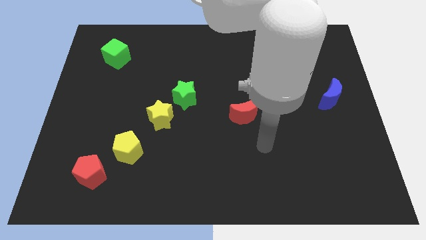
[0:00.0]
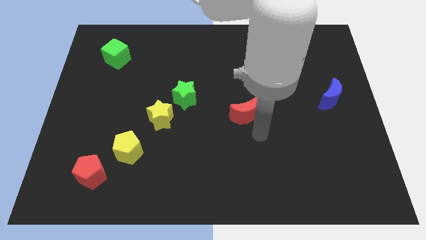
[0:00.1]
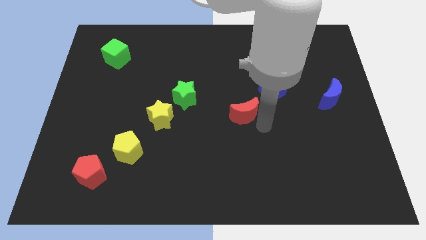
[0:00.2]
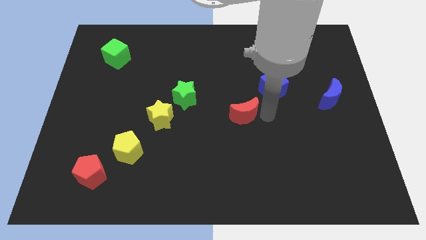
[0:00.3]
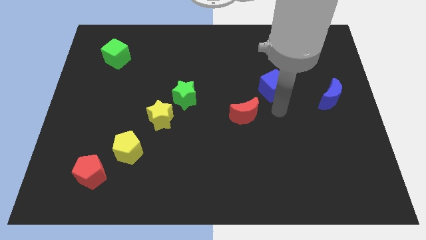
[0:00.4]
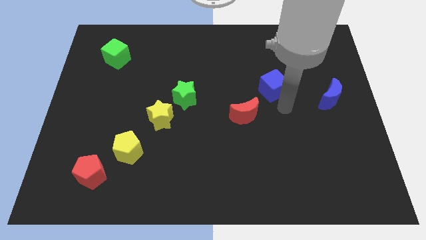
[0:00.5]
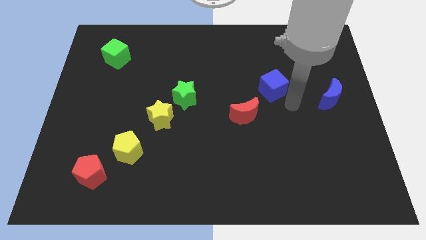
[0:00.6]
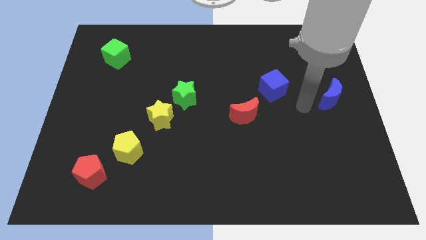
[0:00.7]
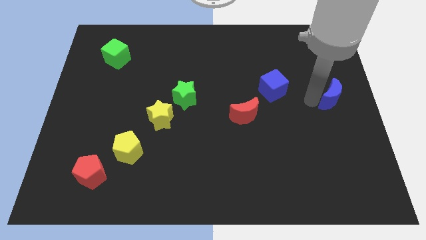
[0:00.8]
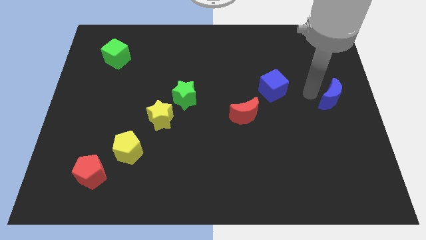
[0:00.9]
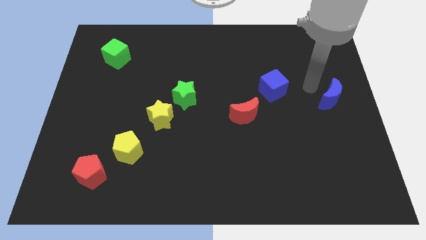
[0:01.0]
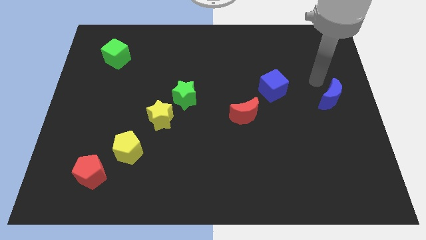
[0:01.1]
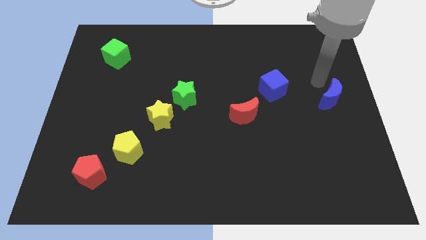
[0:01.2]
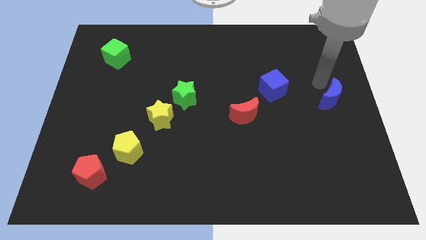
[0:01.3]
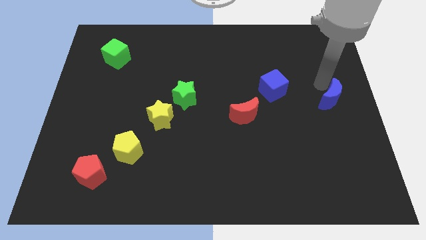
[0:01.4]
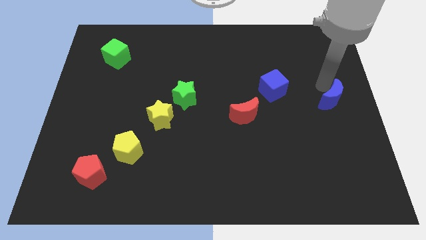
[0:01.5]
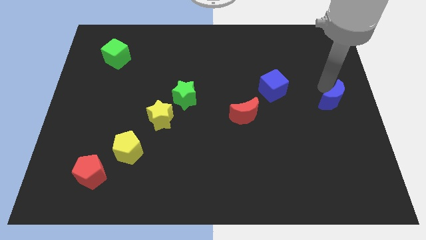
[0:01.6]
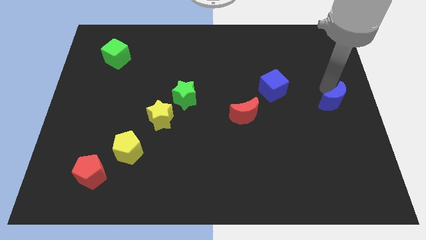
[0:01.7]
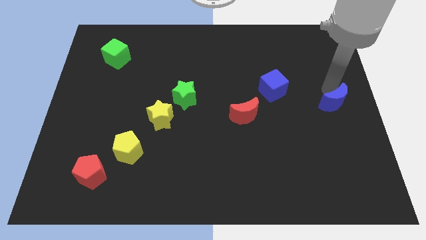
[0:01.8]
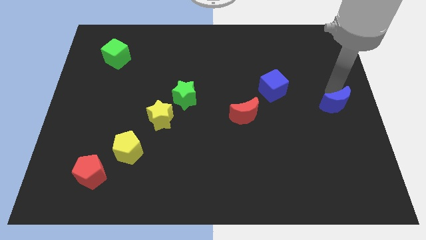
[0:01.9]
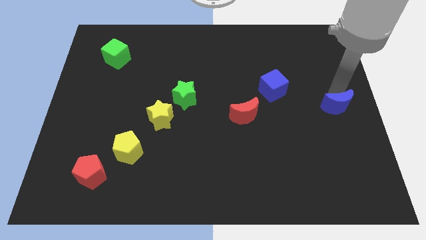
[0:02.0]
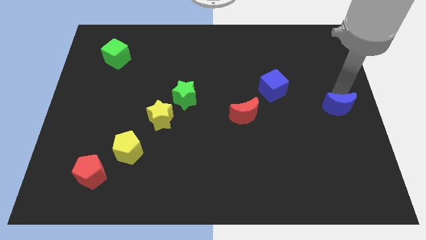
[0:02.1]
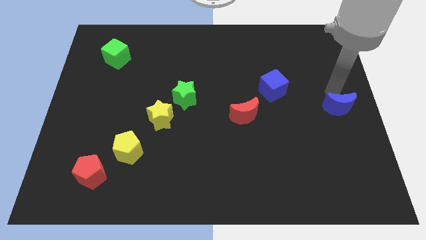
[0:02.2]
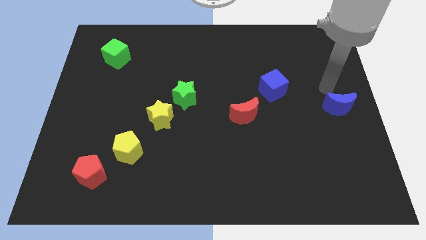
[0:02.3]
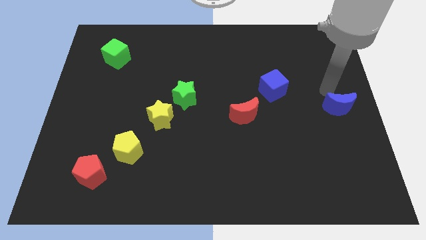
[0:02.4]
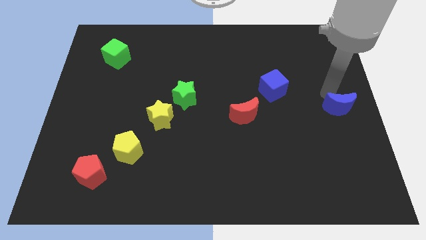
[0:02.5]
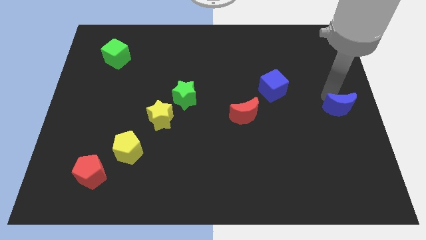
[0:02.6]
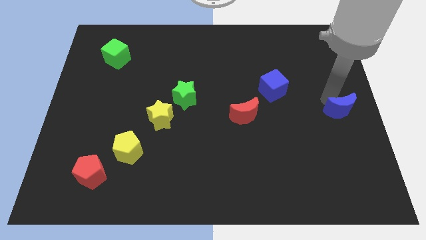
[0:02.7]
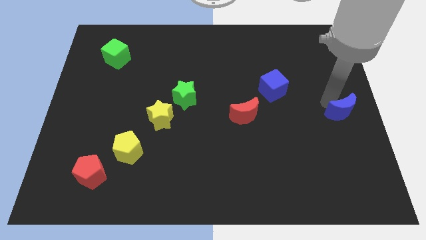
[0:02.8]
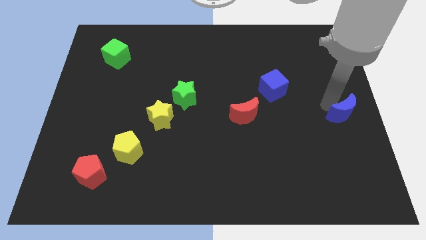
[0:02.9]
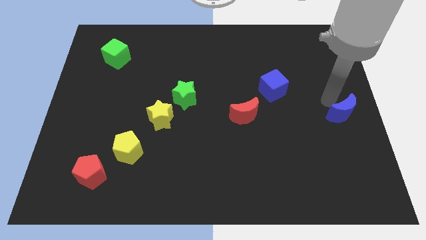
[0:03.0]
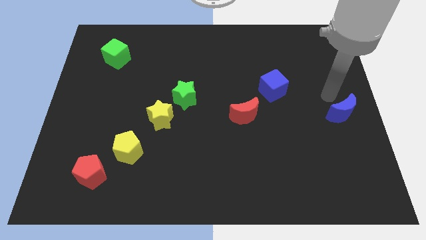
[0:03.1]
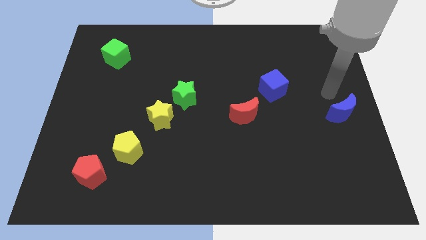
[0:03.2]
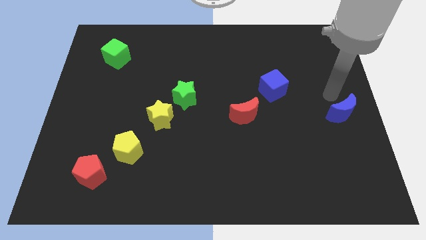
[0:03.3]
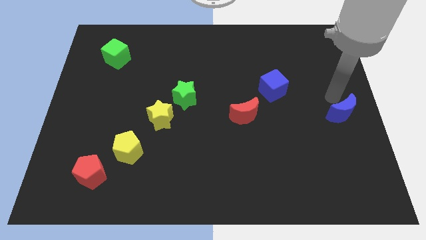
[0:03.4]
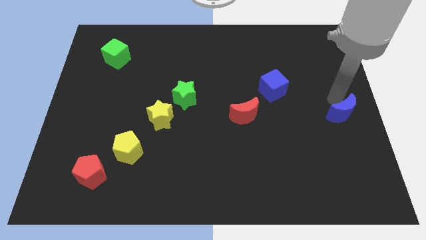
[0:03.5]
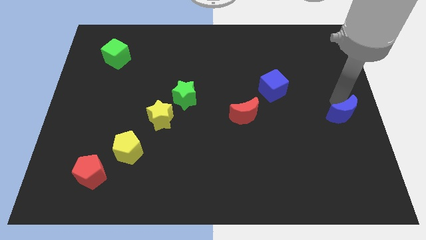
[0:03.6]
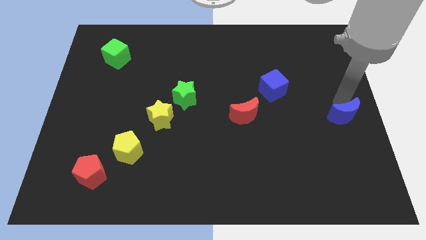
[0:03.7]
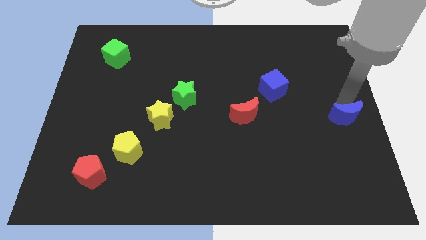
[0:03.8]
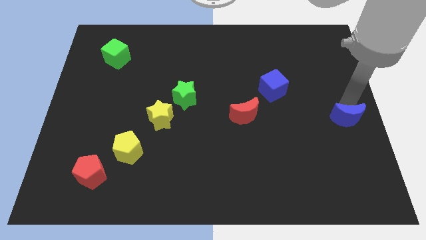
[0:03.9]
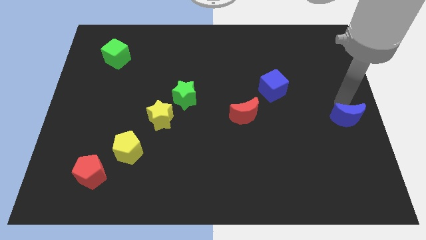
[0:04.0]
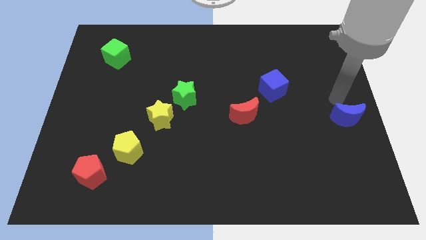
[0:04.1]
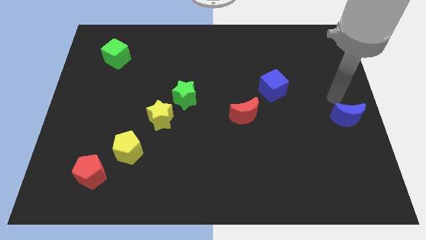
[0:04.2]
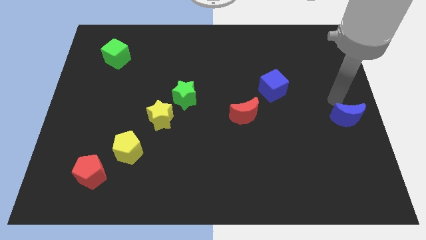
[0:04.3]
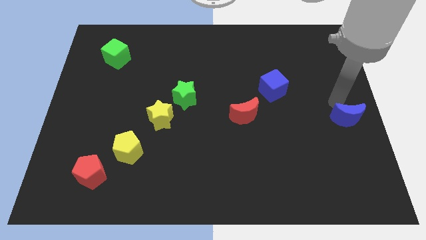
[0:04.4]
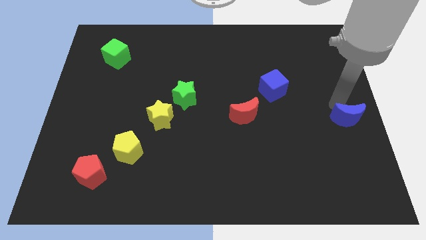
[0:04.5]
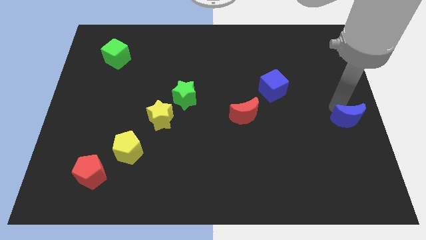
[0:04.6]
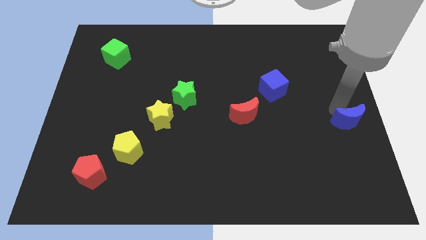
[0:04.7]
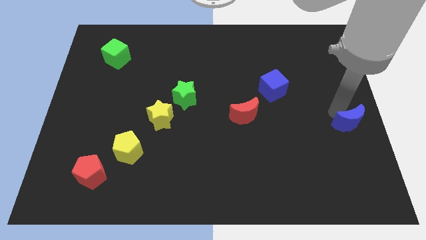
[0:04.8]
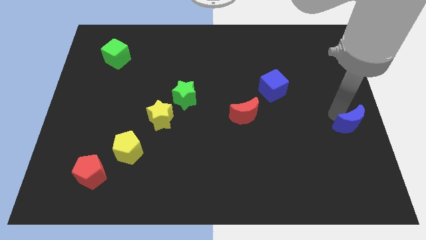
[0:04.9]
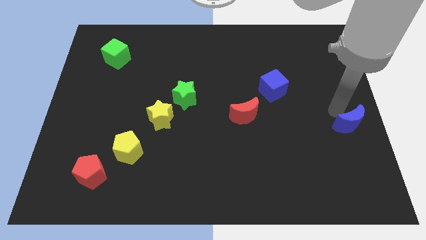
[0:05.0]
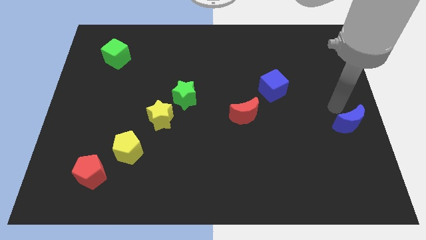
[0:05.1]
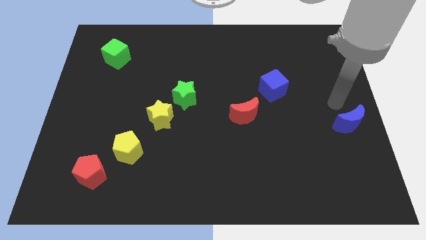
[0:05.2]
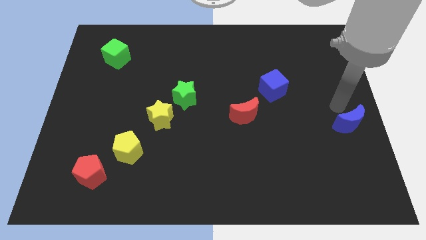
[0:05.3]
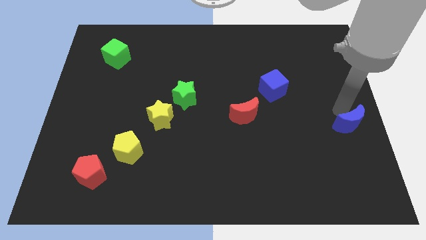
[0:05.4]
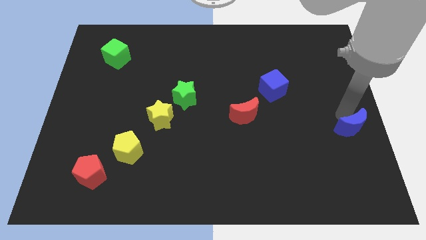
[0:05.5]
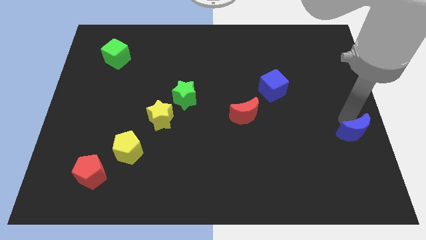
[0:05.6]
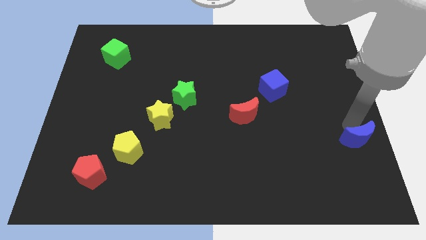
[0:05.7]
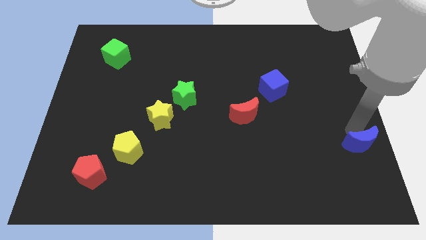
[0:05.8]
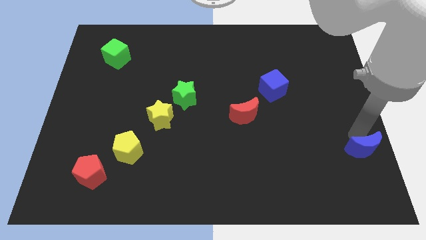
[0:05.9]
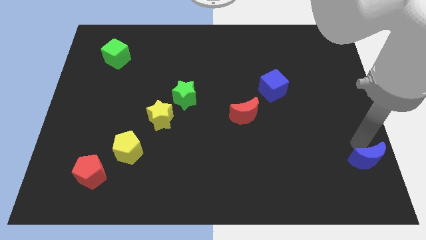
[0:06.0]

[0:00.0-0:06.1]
move the blue moon to the bottom right

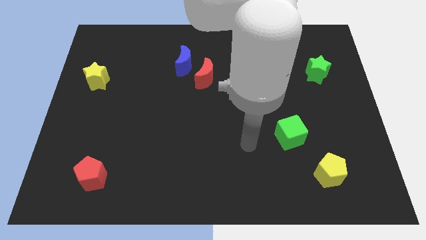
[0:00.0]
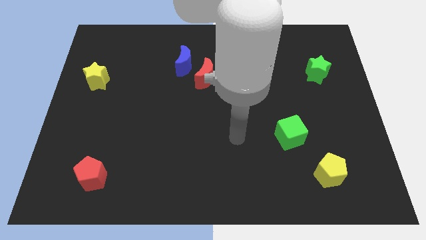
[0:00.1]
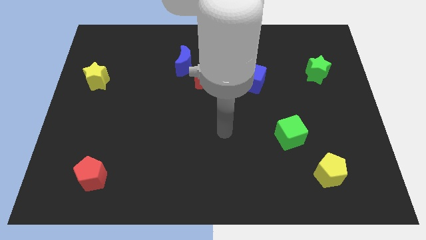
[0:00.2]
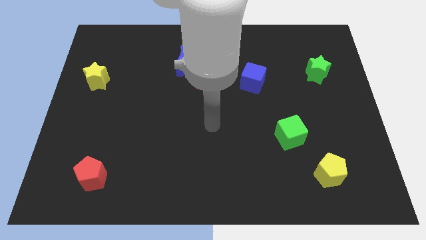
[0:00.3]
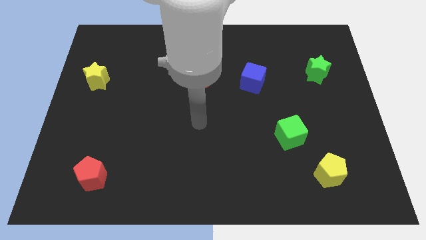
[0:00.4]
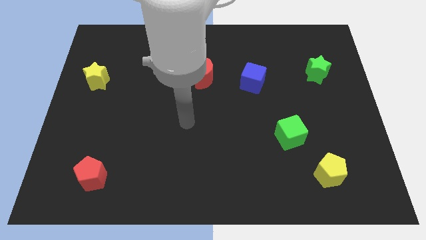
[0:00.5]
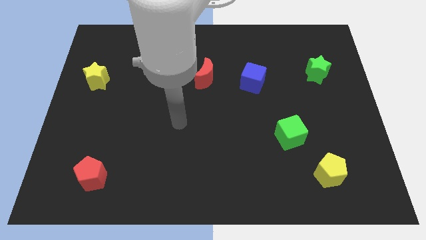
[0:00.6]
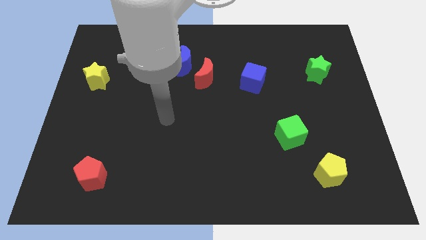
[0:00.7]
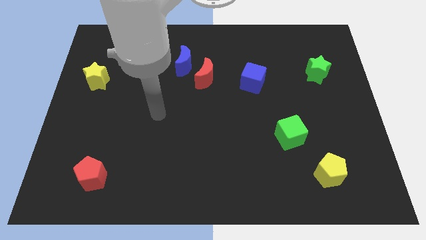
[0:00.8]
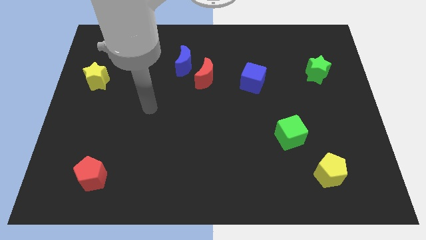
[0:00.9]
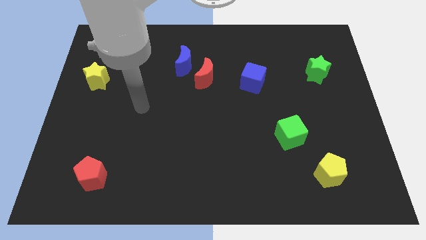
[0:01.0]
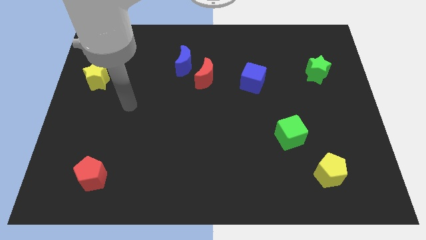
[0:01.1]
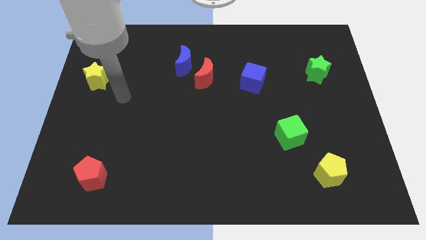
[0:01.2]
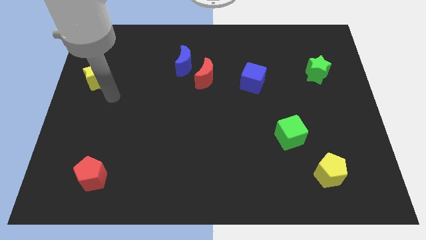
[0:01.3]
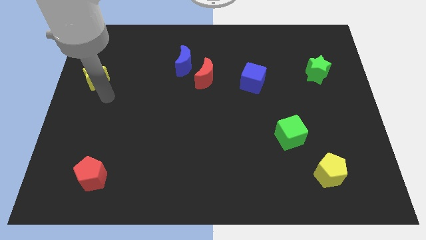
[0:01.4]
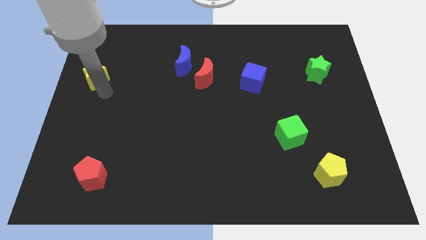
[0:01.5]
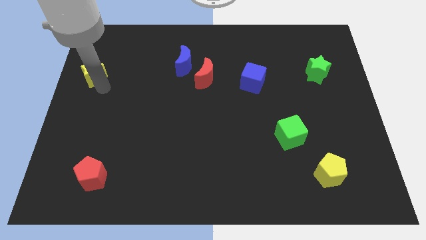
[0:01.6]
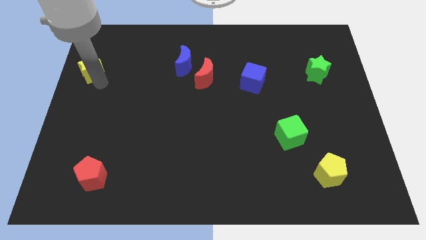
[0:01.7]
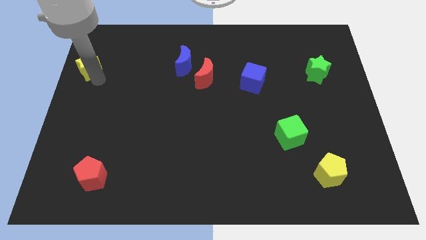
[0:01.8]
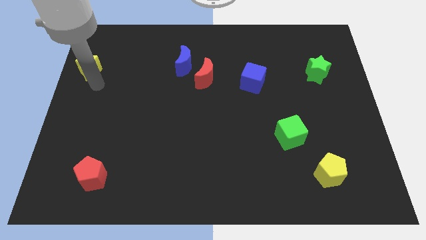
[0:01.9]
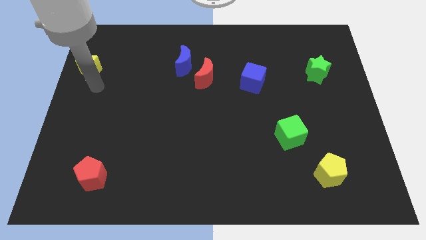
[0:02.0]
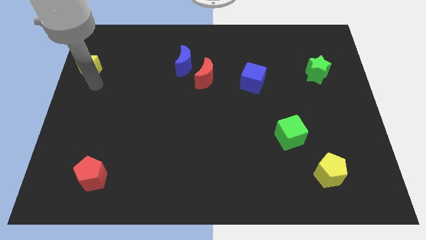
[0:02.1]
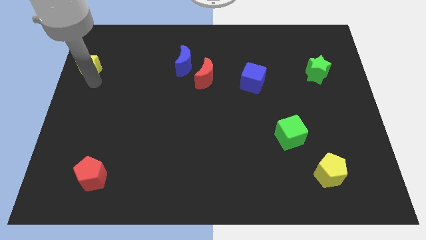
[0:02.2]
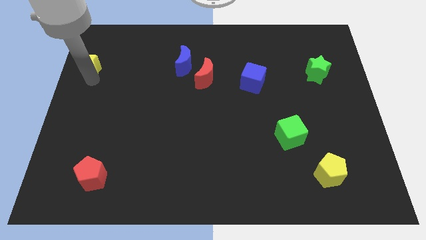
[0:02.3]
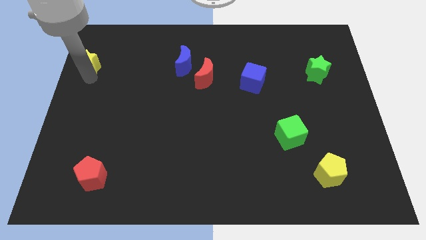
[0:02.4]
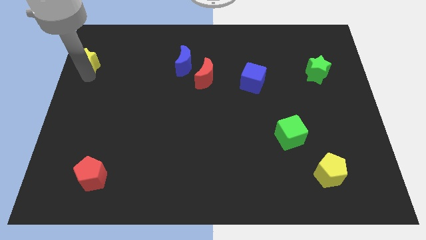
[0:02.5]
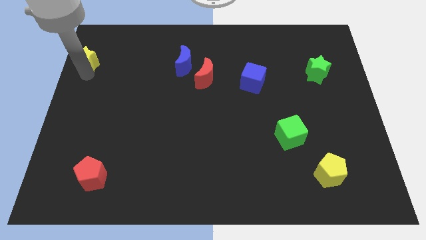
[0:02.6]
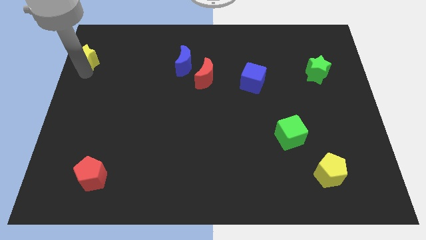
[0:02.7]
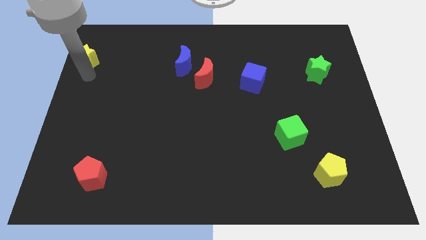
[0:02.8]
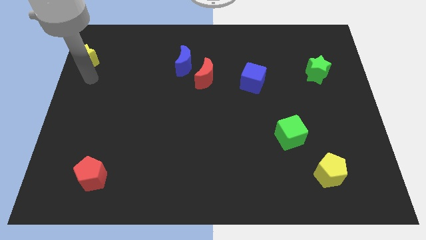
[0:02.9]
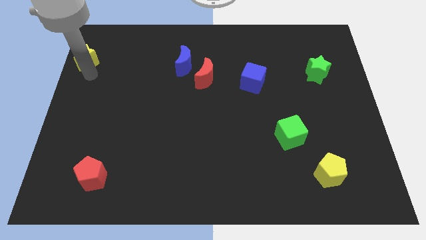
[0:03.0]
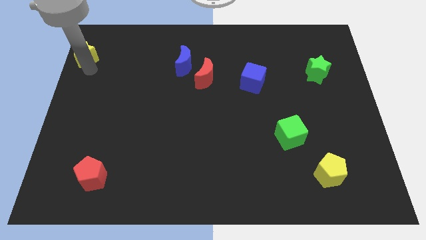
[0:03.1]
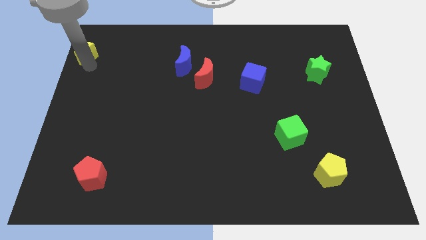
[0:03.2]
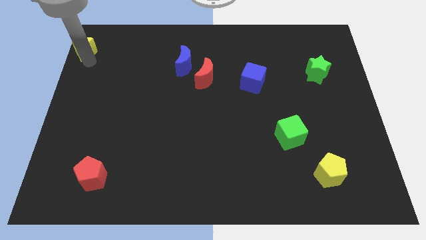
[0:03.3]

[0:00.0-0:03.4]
put the yellow star to the upper left corner
